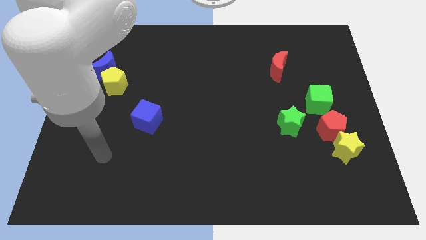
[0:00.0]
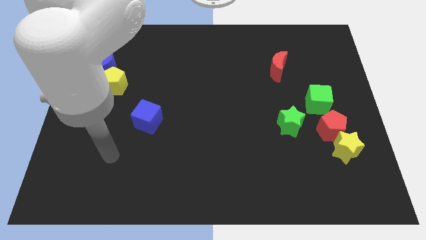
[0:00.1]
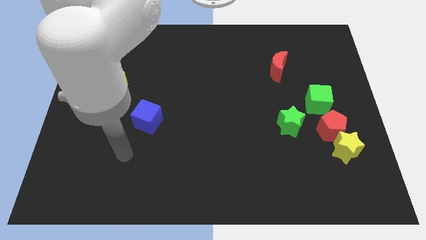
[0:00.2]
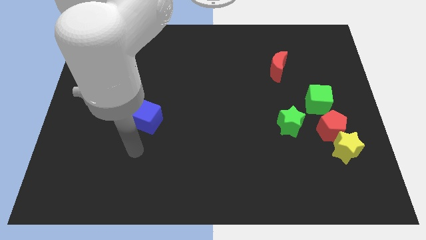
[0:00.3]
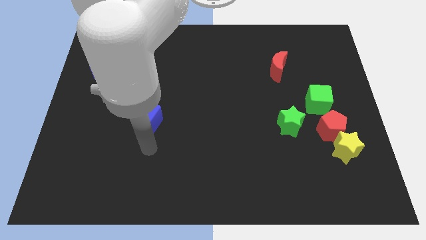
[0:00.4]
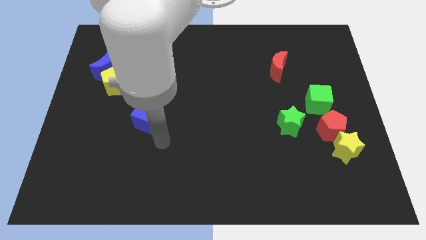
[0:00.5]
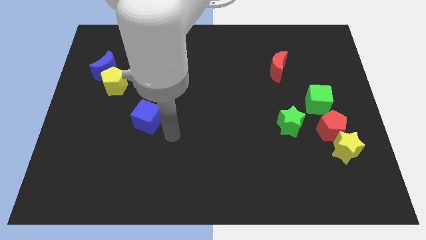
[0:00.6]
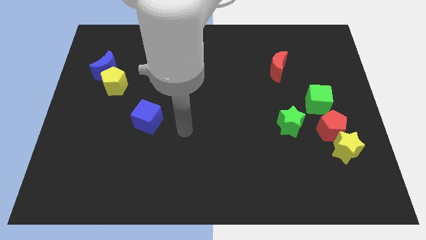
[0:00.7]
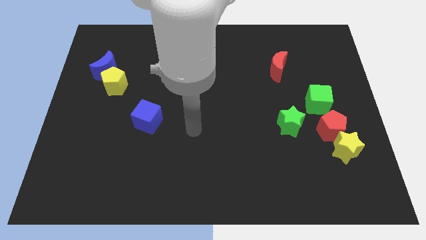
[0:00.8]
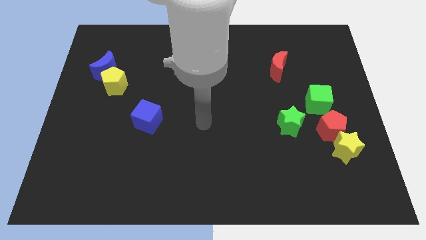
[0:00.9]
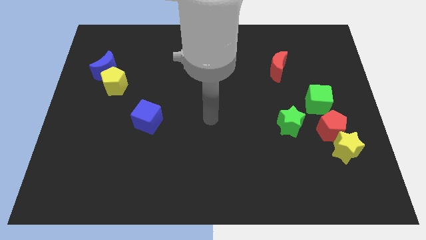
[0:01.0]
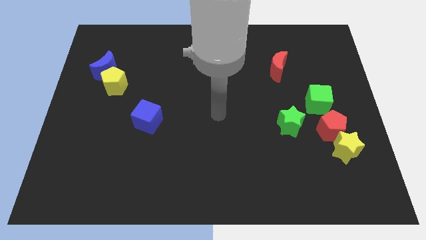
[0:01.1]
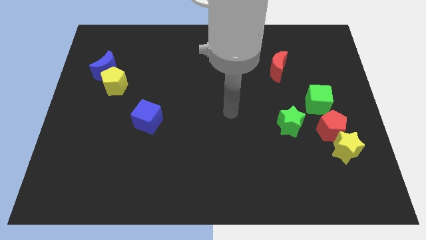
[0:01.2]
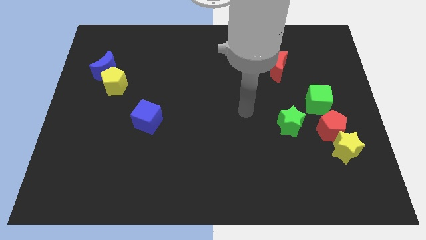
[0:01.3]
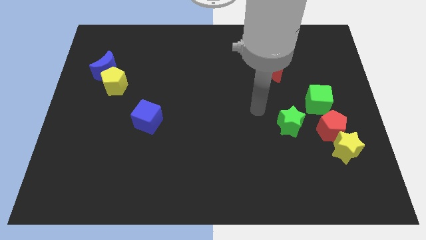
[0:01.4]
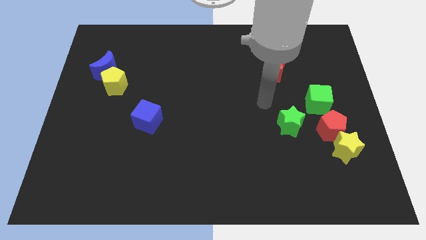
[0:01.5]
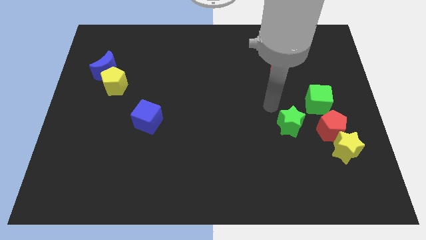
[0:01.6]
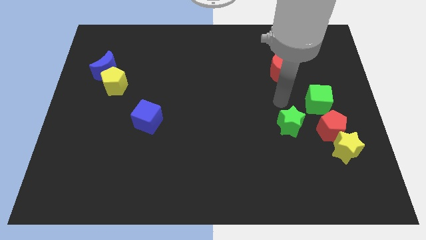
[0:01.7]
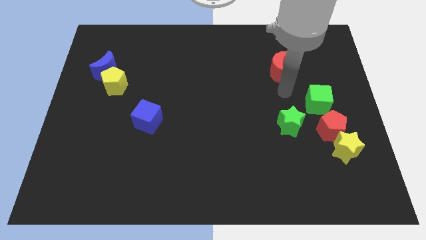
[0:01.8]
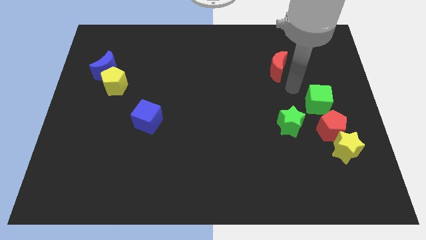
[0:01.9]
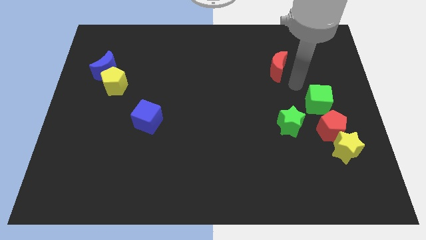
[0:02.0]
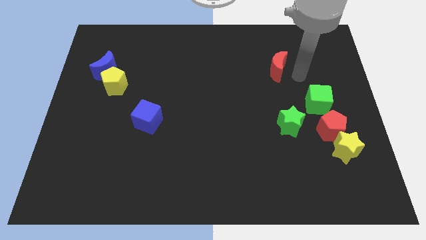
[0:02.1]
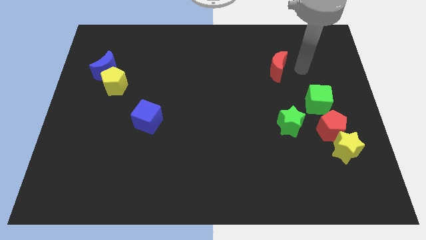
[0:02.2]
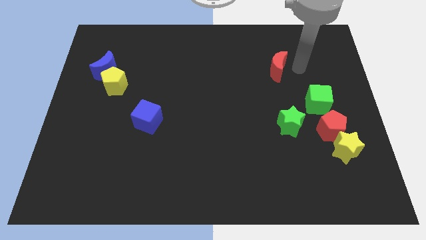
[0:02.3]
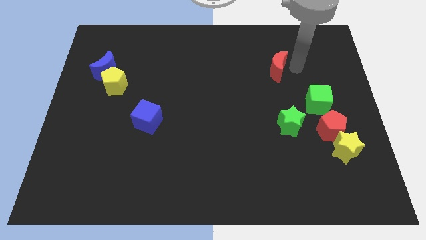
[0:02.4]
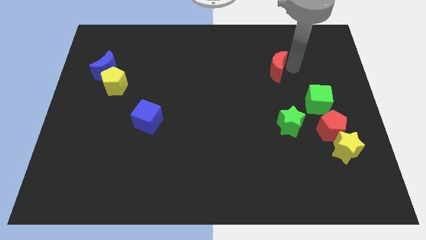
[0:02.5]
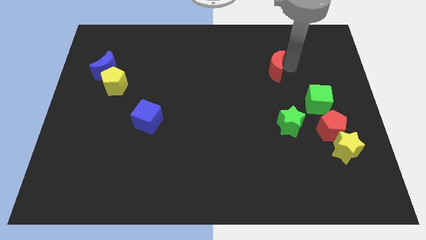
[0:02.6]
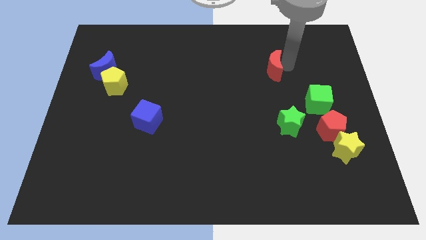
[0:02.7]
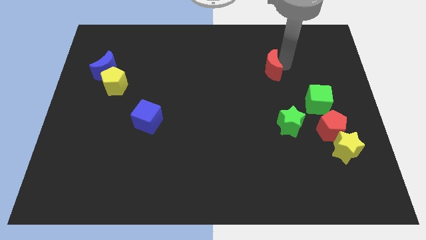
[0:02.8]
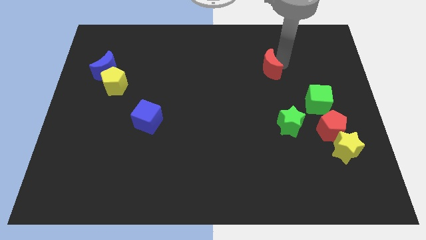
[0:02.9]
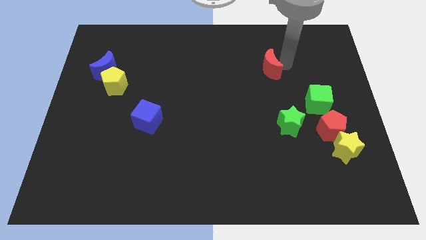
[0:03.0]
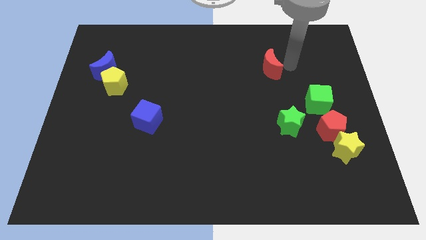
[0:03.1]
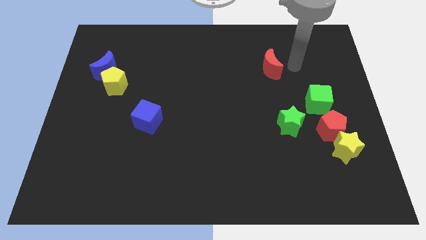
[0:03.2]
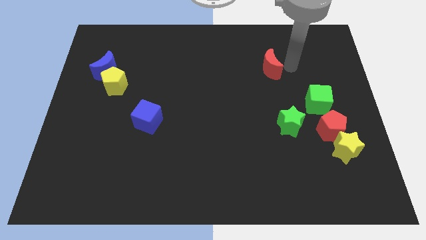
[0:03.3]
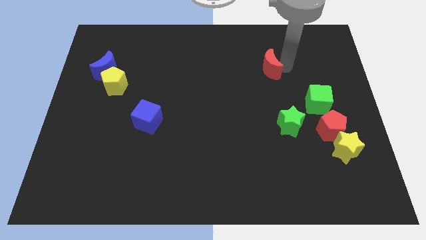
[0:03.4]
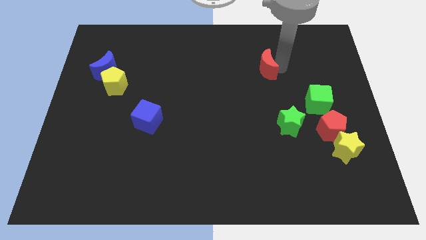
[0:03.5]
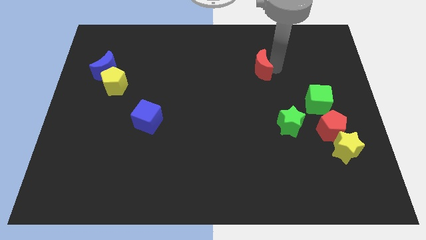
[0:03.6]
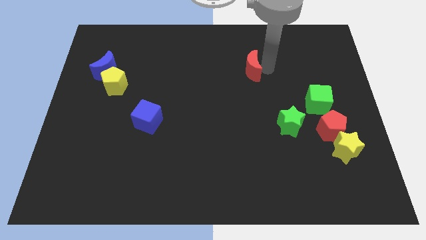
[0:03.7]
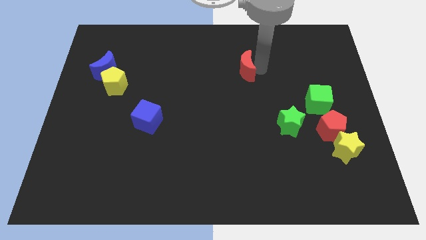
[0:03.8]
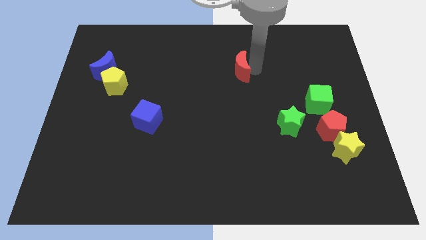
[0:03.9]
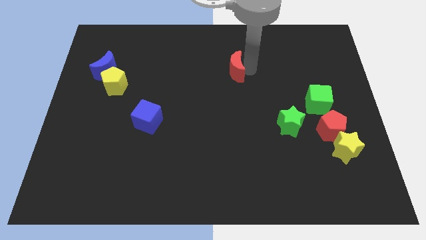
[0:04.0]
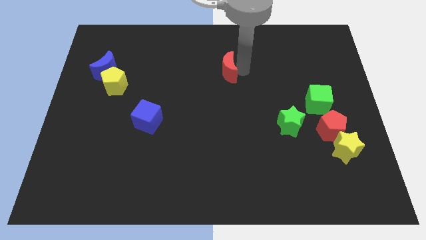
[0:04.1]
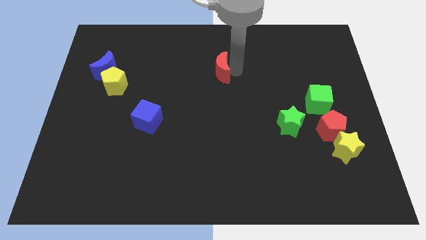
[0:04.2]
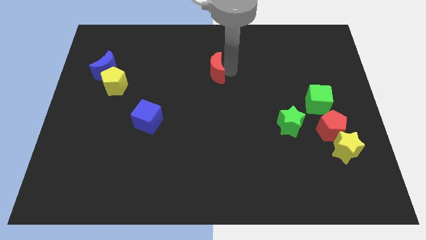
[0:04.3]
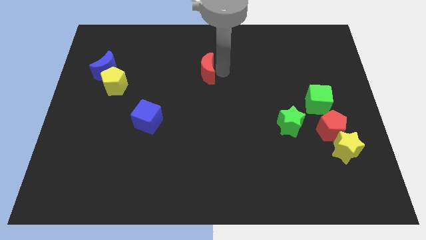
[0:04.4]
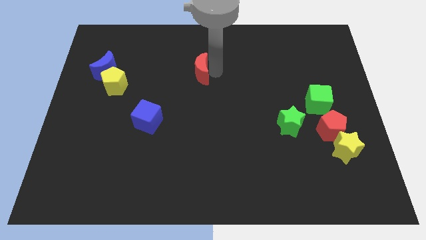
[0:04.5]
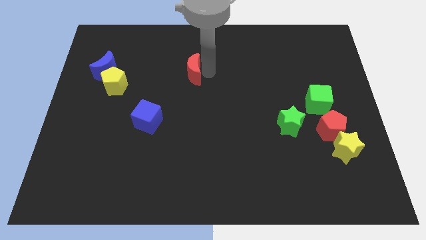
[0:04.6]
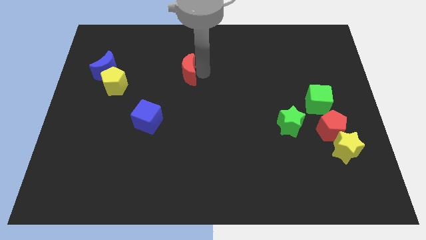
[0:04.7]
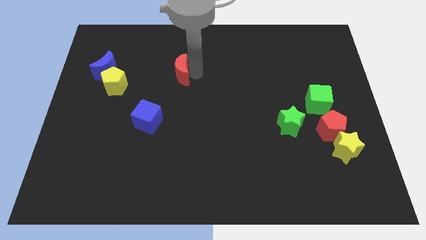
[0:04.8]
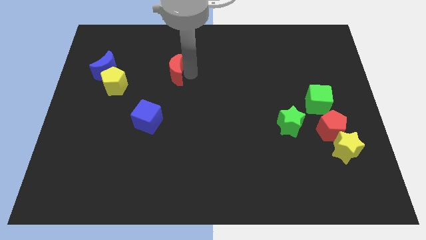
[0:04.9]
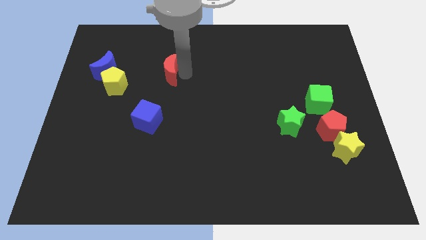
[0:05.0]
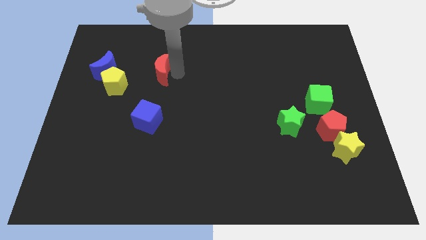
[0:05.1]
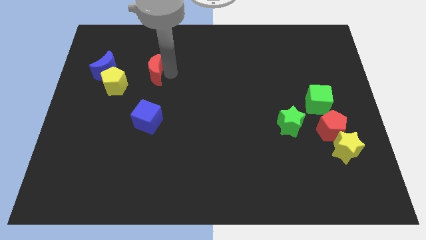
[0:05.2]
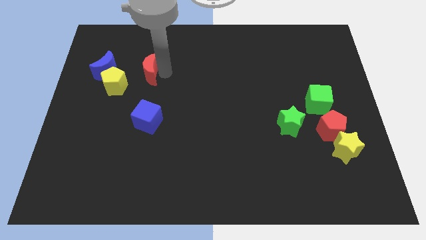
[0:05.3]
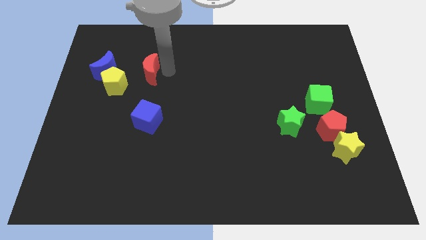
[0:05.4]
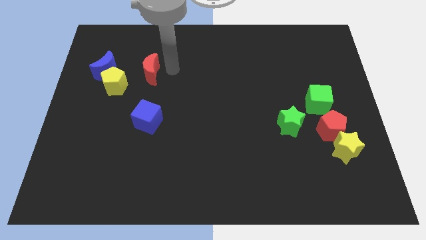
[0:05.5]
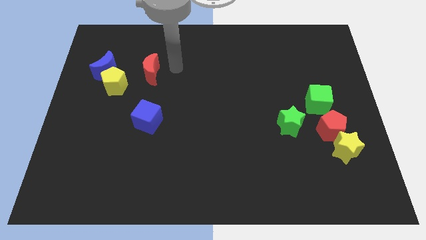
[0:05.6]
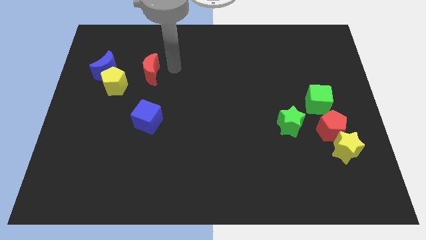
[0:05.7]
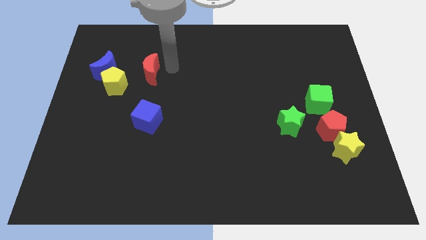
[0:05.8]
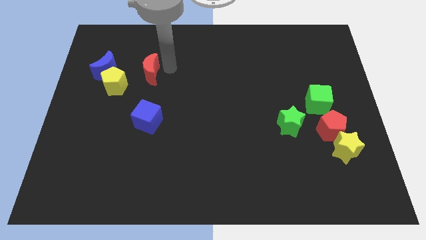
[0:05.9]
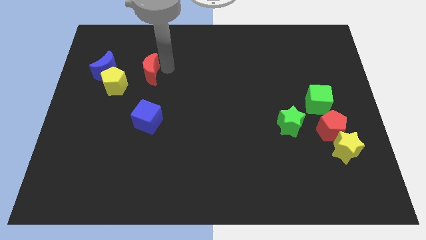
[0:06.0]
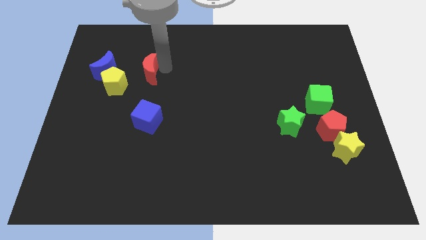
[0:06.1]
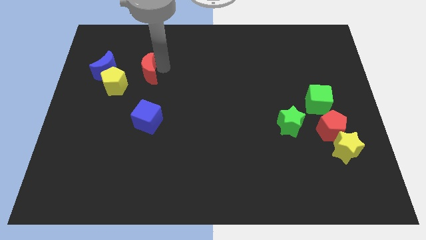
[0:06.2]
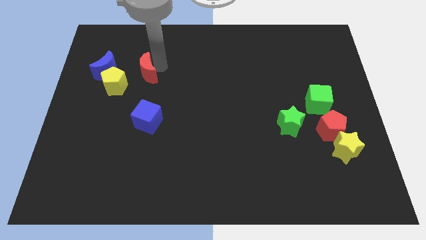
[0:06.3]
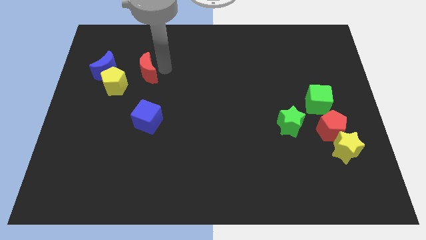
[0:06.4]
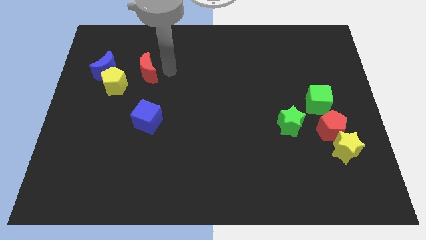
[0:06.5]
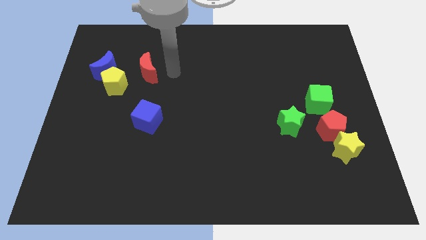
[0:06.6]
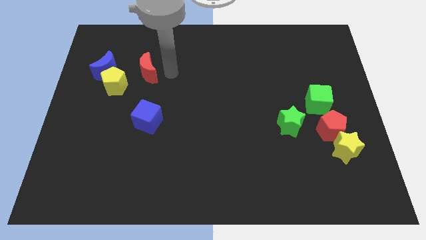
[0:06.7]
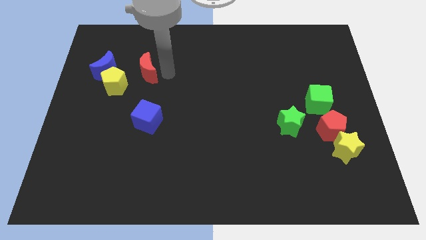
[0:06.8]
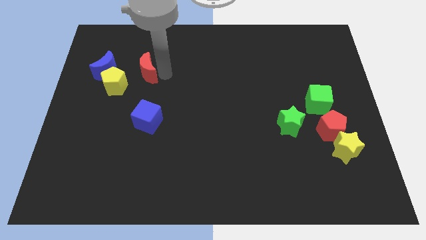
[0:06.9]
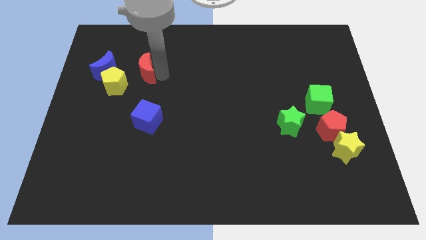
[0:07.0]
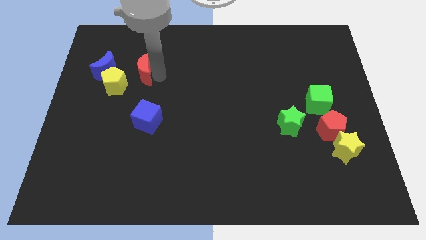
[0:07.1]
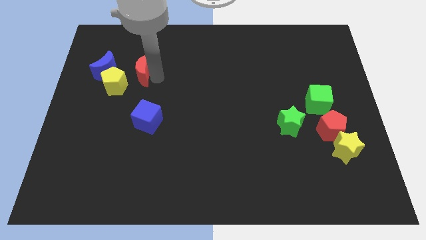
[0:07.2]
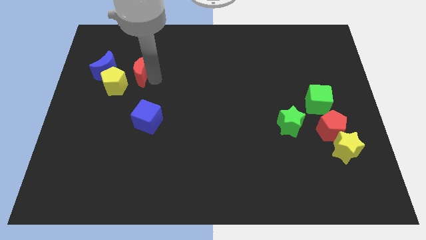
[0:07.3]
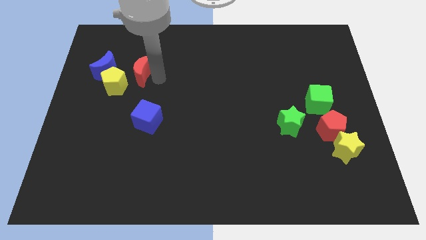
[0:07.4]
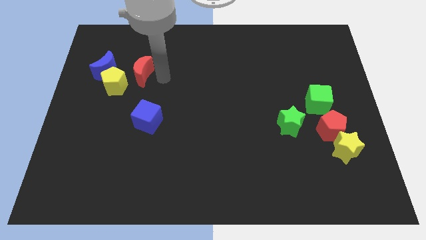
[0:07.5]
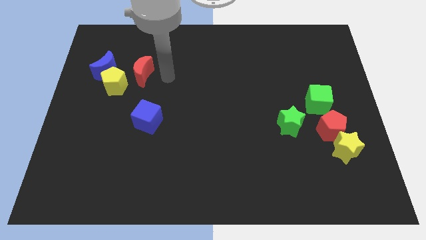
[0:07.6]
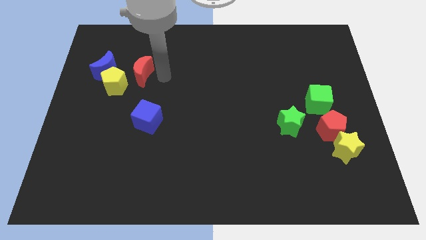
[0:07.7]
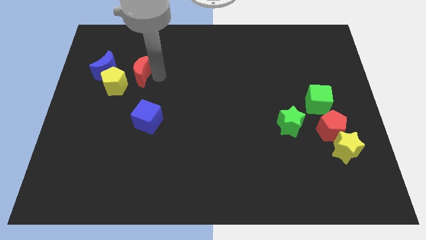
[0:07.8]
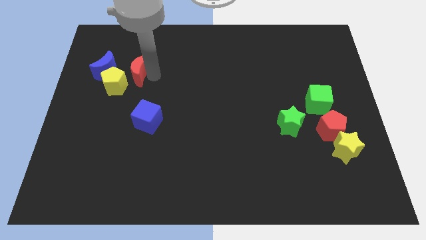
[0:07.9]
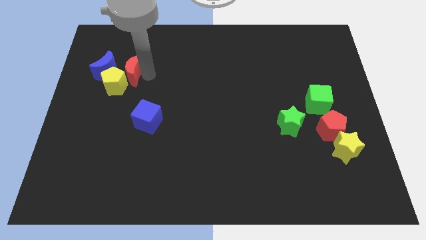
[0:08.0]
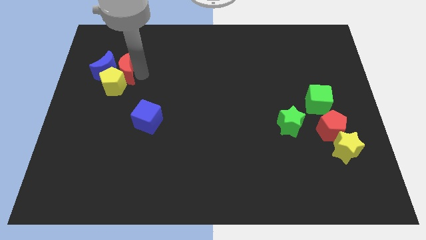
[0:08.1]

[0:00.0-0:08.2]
slide the red moon next to the blue moon
